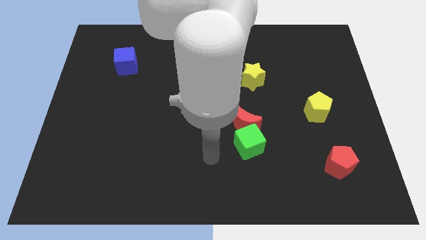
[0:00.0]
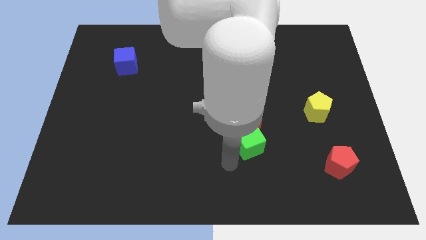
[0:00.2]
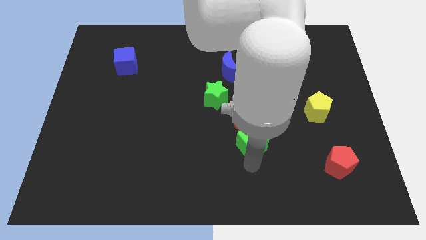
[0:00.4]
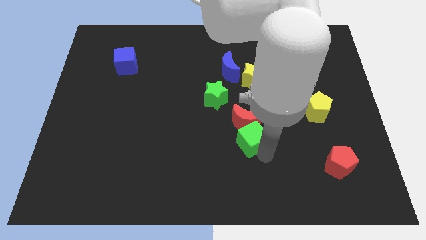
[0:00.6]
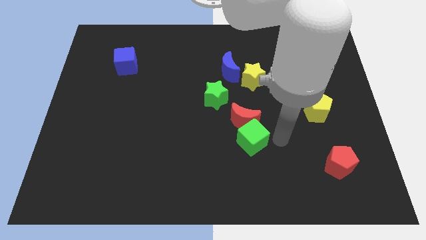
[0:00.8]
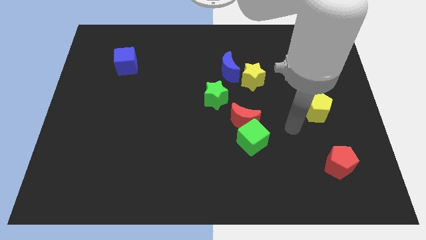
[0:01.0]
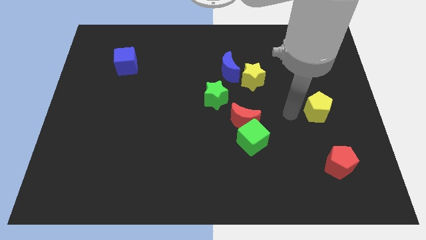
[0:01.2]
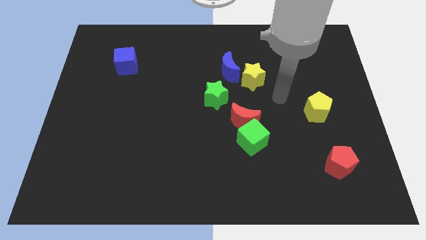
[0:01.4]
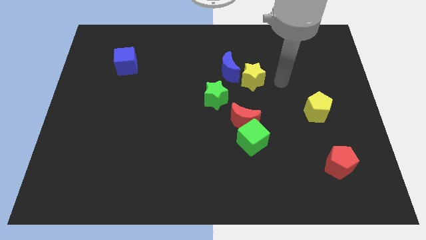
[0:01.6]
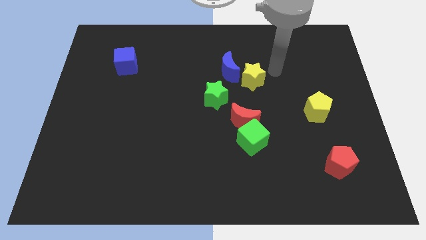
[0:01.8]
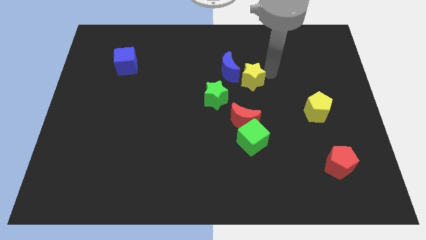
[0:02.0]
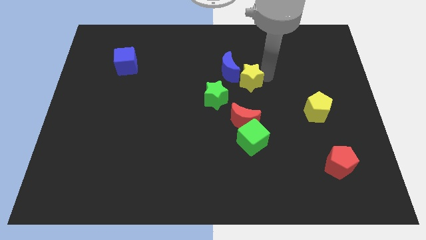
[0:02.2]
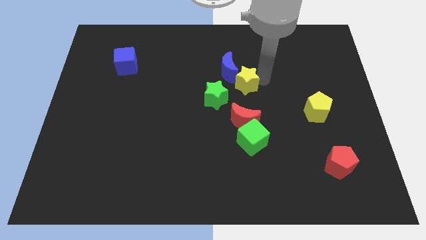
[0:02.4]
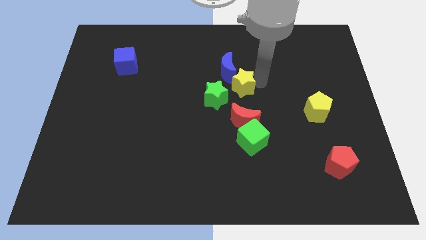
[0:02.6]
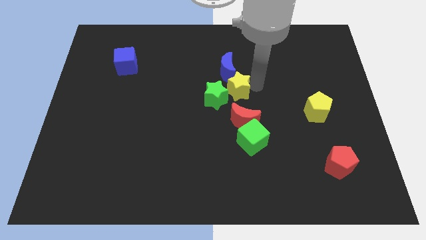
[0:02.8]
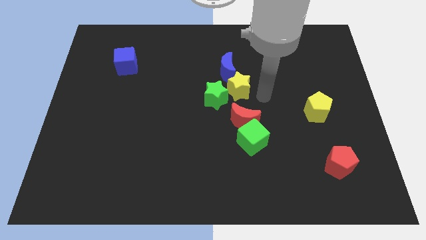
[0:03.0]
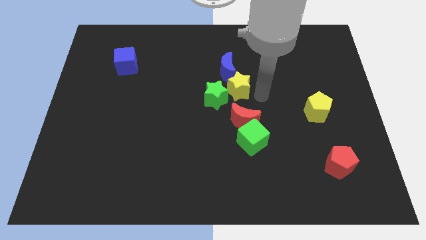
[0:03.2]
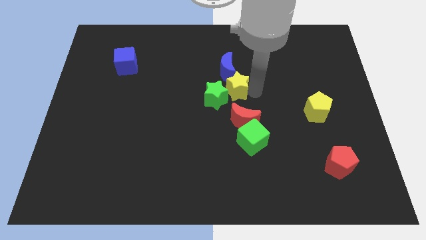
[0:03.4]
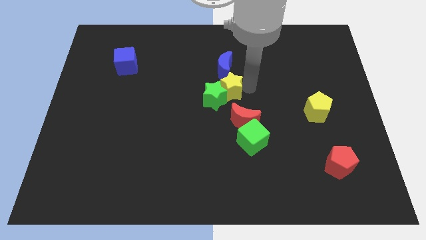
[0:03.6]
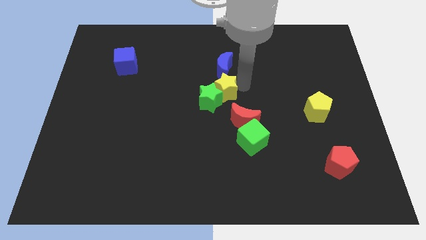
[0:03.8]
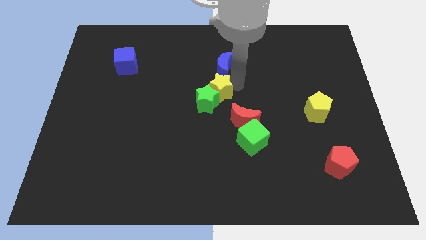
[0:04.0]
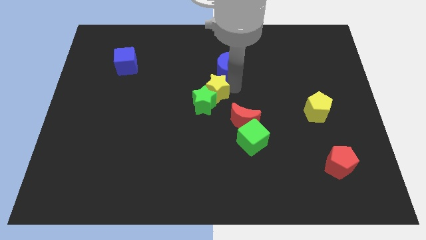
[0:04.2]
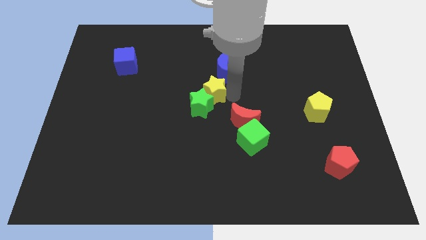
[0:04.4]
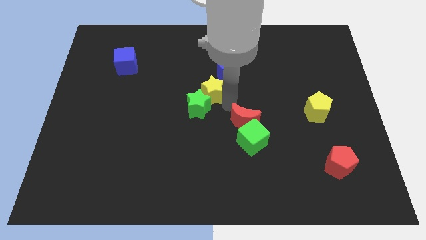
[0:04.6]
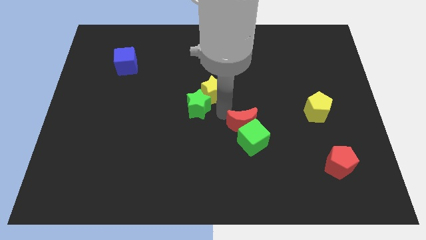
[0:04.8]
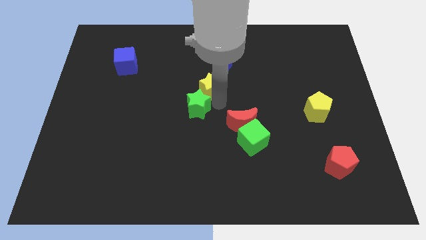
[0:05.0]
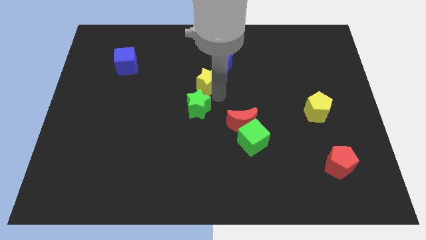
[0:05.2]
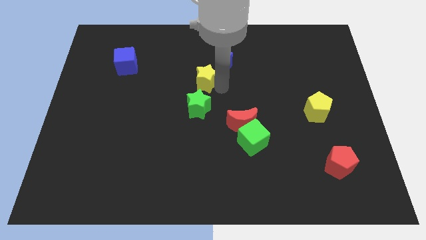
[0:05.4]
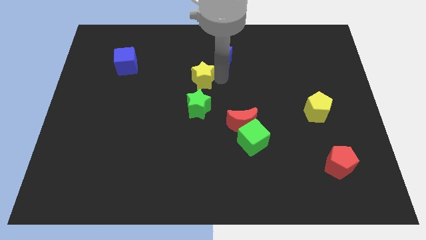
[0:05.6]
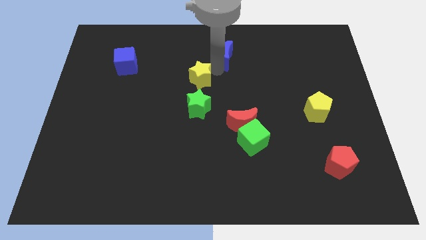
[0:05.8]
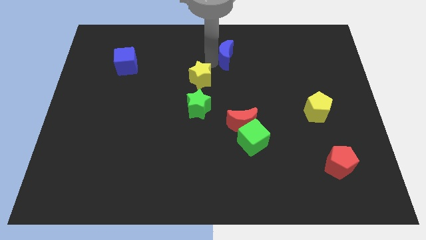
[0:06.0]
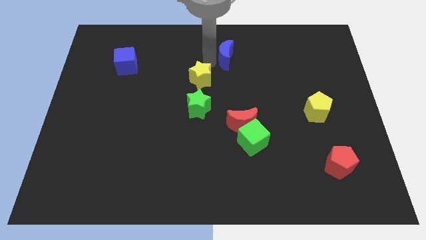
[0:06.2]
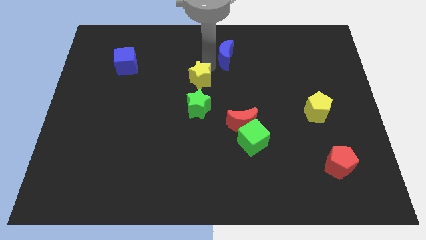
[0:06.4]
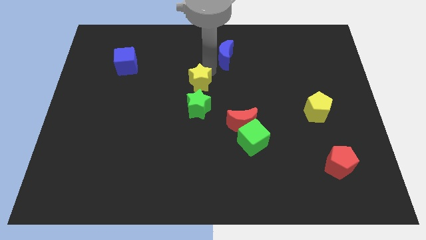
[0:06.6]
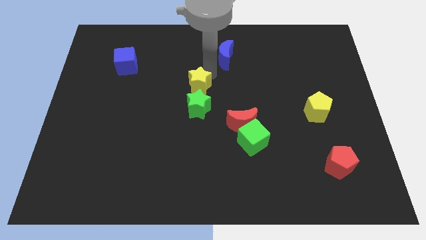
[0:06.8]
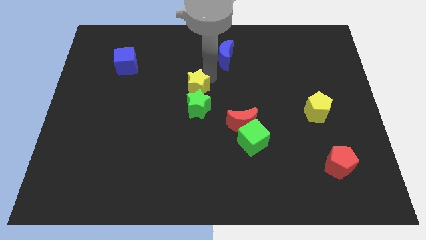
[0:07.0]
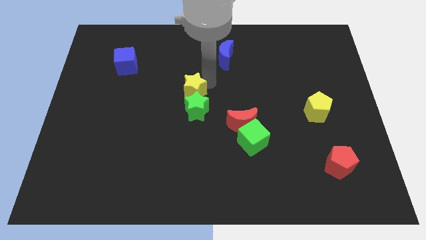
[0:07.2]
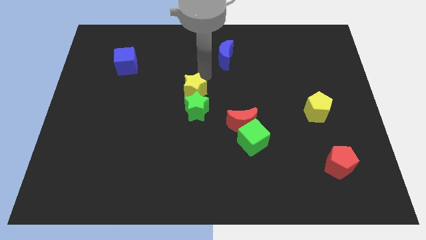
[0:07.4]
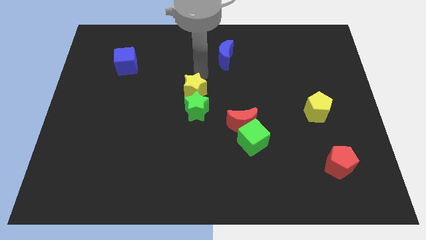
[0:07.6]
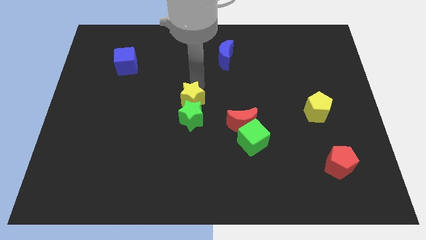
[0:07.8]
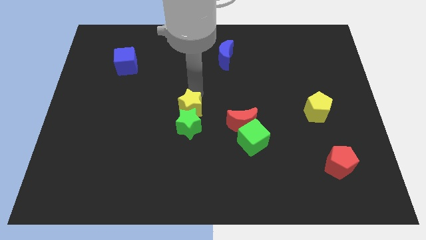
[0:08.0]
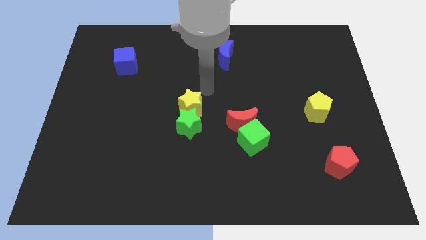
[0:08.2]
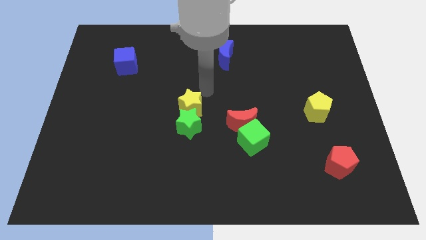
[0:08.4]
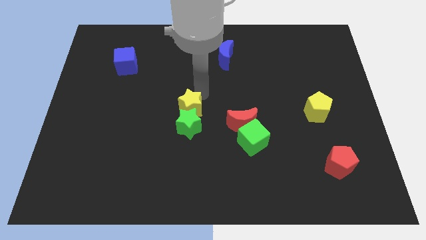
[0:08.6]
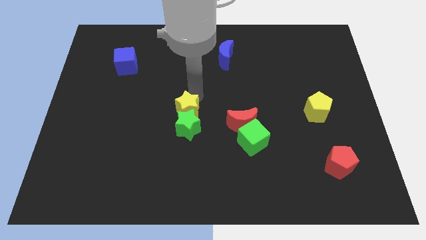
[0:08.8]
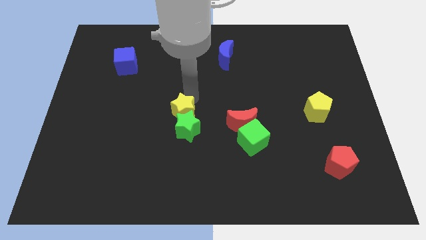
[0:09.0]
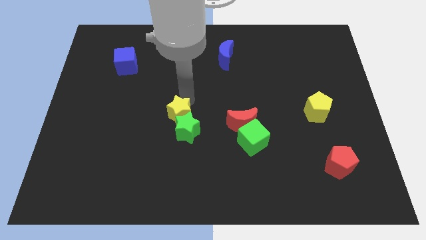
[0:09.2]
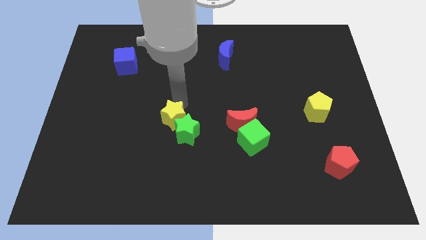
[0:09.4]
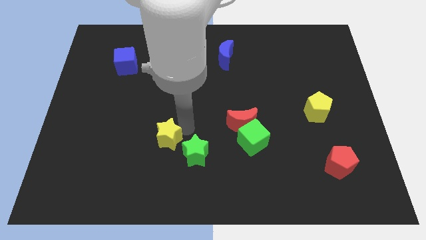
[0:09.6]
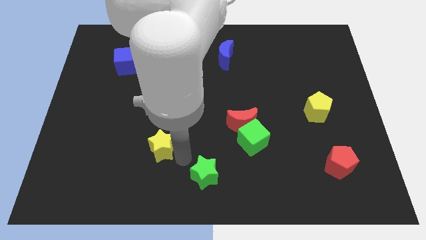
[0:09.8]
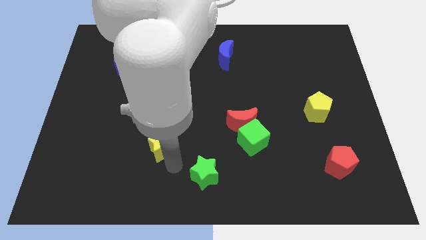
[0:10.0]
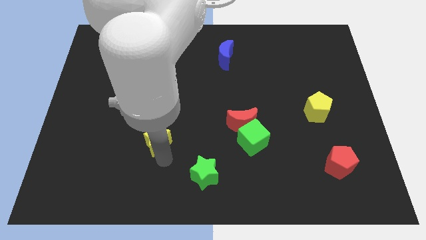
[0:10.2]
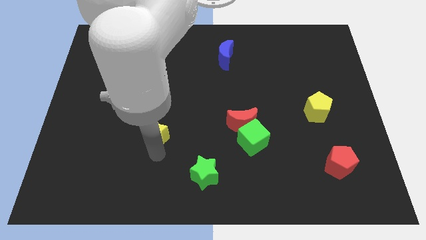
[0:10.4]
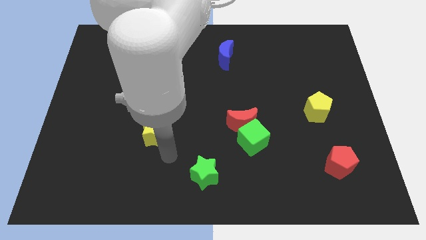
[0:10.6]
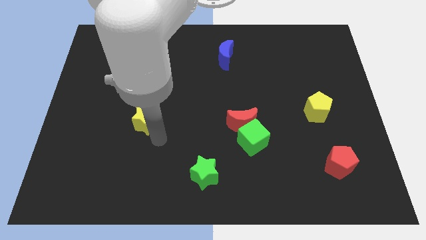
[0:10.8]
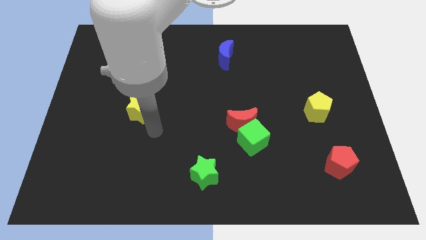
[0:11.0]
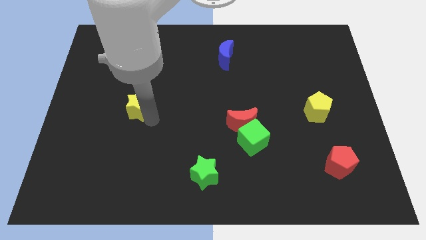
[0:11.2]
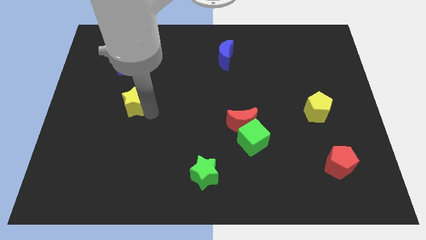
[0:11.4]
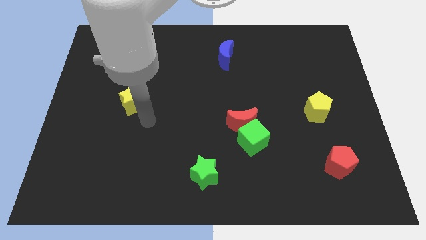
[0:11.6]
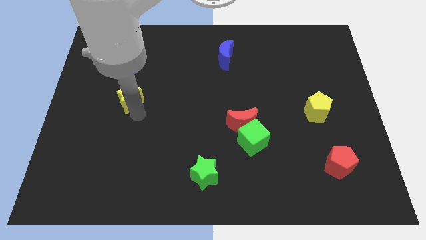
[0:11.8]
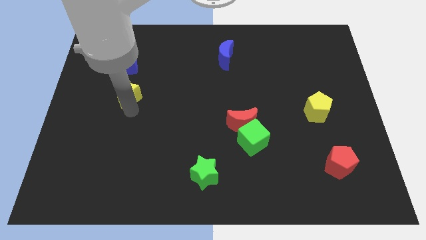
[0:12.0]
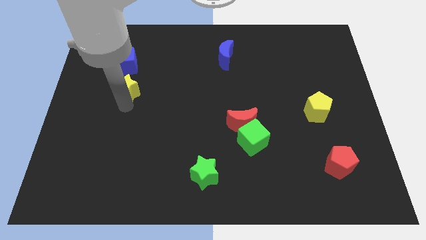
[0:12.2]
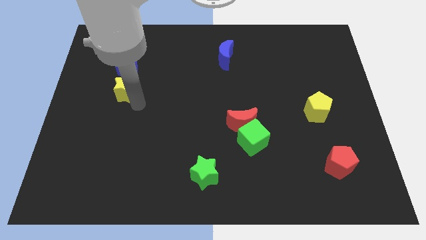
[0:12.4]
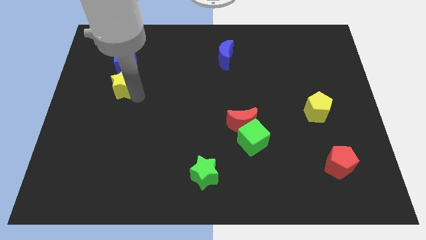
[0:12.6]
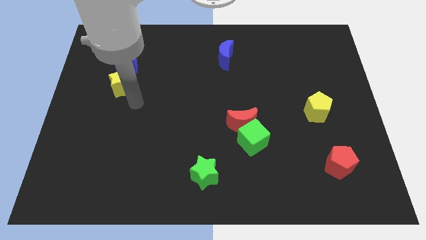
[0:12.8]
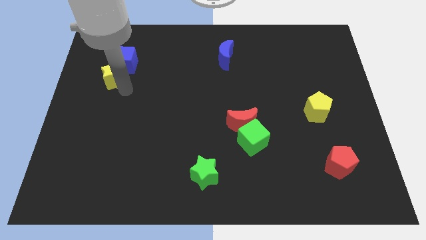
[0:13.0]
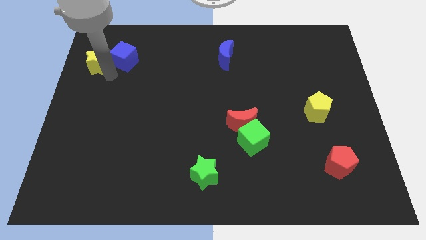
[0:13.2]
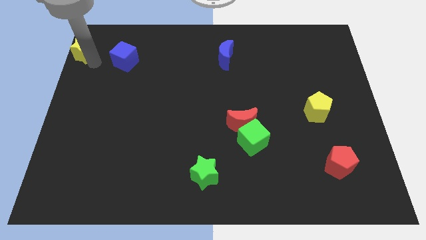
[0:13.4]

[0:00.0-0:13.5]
move the yellow star to the top left
